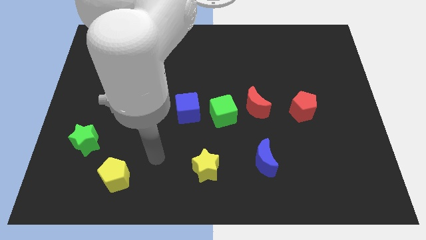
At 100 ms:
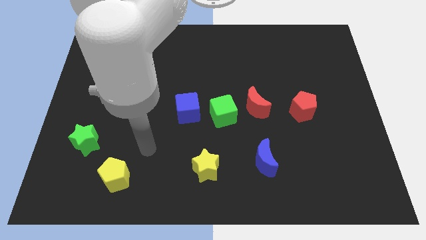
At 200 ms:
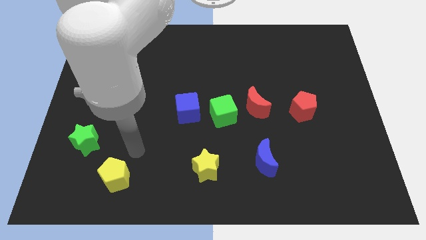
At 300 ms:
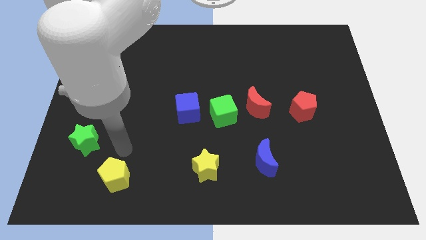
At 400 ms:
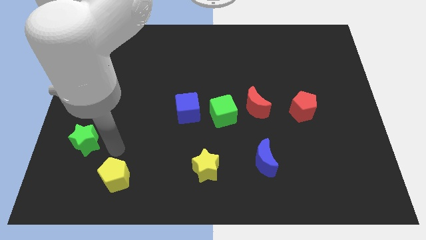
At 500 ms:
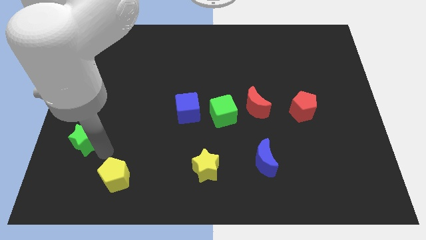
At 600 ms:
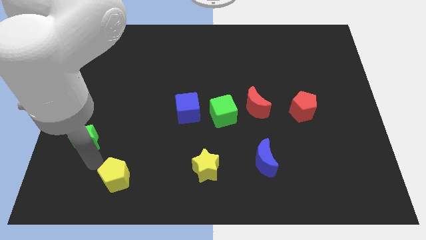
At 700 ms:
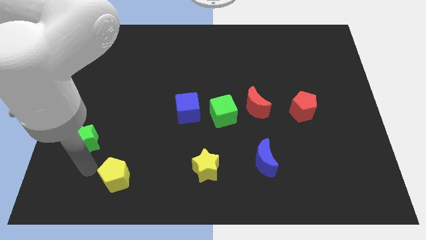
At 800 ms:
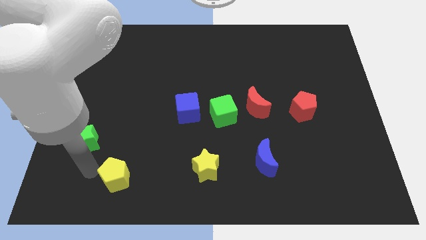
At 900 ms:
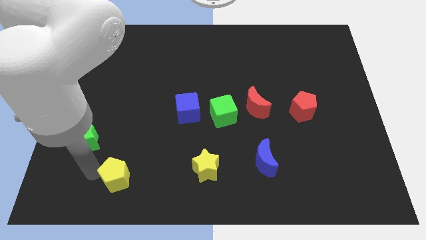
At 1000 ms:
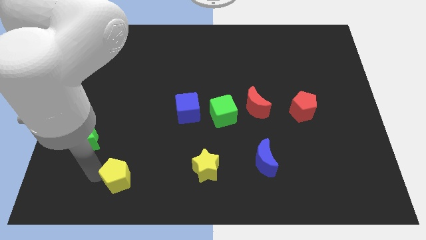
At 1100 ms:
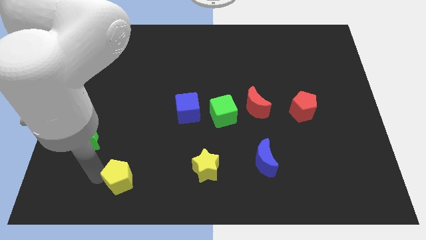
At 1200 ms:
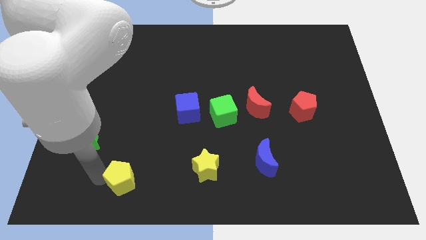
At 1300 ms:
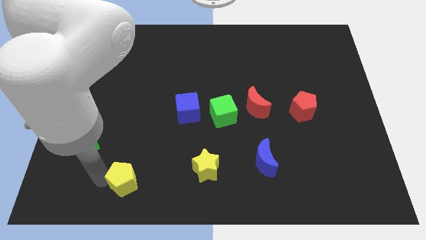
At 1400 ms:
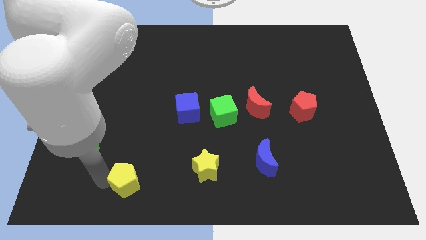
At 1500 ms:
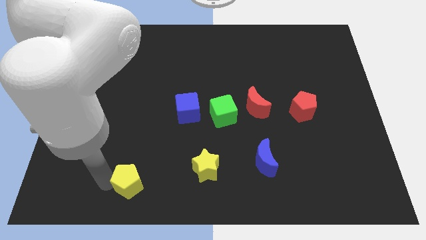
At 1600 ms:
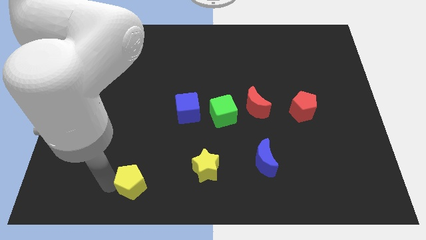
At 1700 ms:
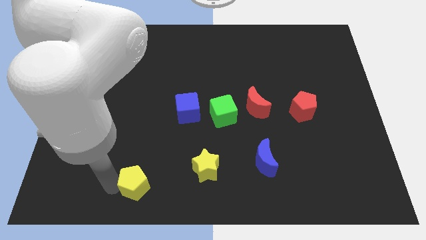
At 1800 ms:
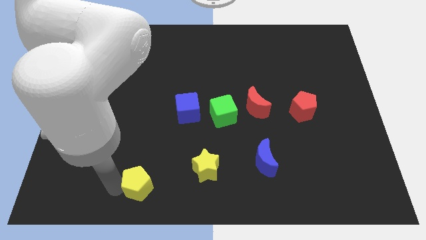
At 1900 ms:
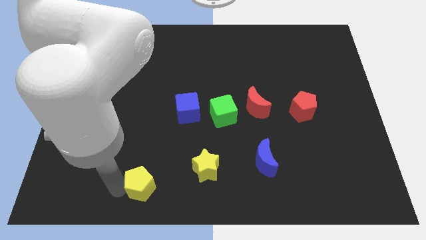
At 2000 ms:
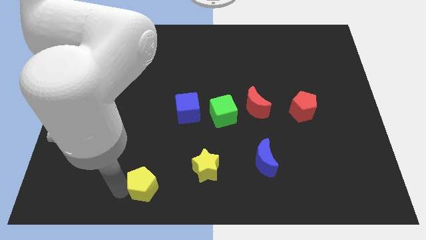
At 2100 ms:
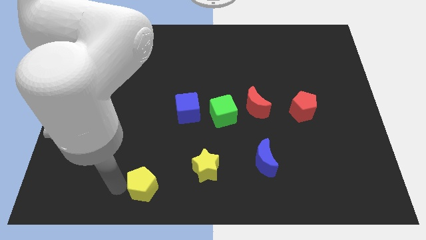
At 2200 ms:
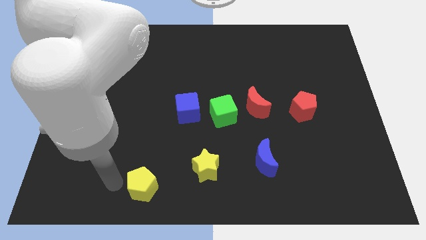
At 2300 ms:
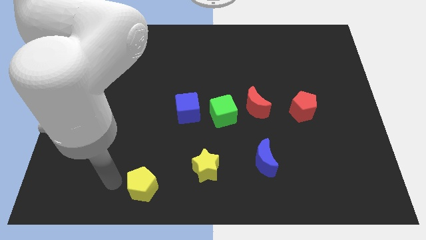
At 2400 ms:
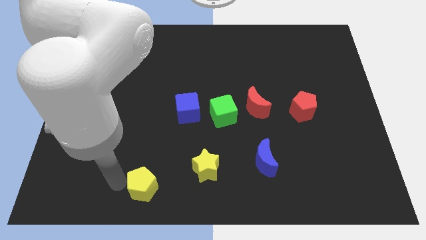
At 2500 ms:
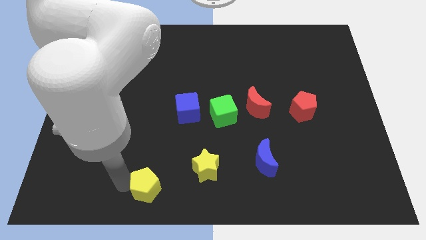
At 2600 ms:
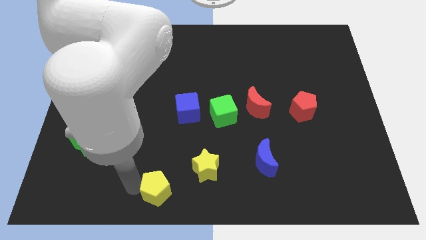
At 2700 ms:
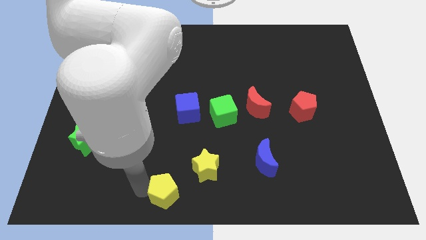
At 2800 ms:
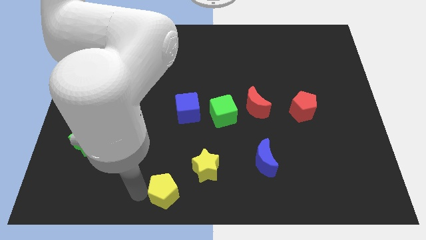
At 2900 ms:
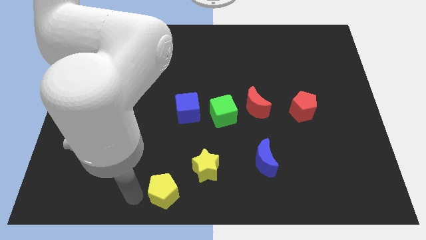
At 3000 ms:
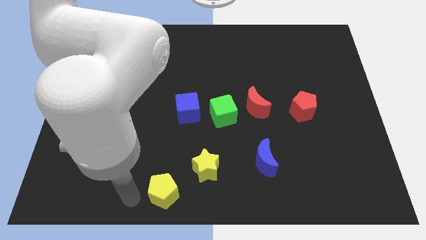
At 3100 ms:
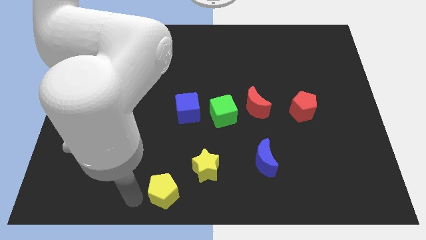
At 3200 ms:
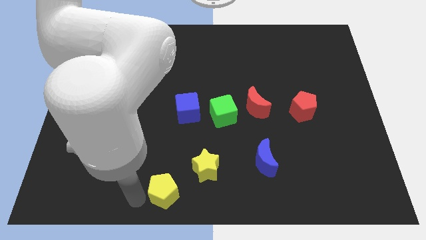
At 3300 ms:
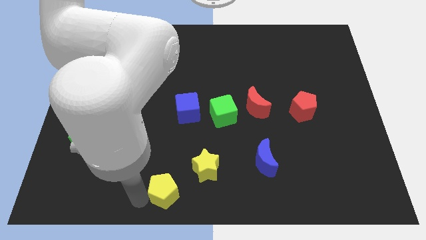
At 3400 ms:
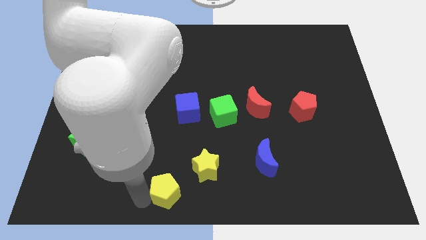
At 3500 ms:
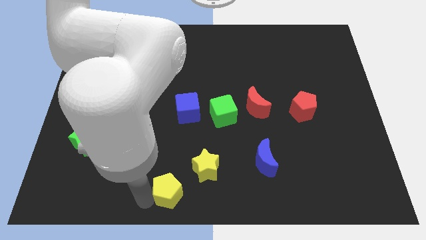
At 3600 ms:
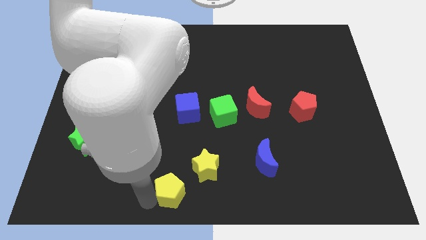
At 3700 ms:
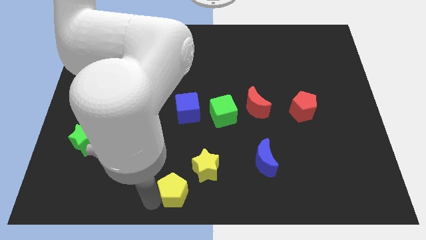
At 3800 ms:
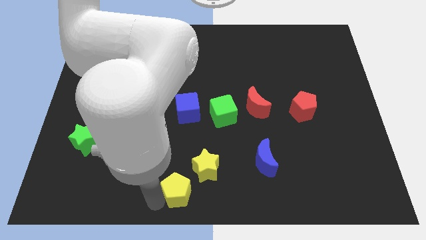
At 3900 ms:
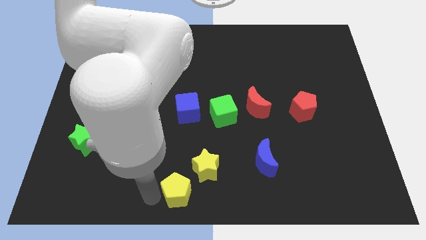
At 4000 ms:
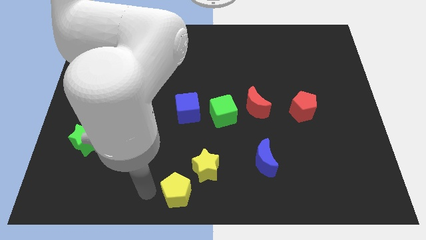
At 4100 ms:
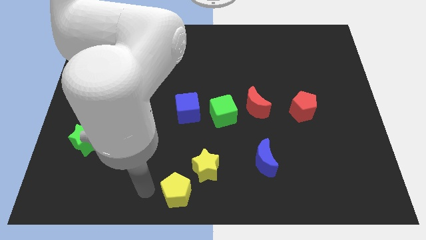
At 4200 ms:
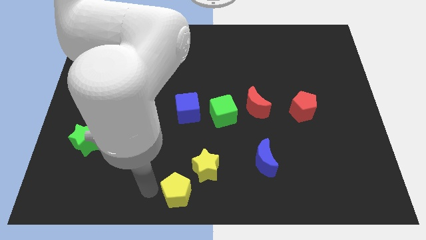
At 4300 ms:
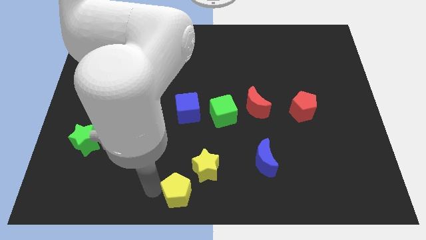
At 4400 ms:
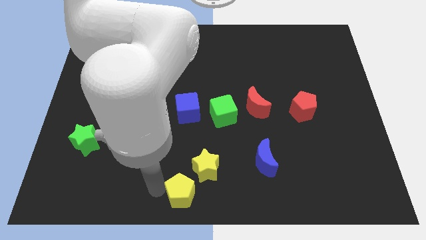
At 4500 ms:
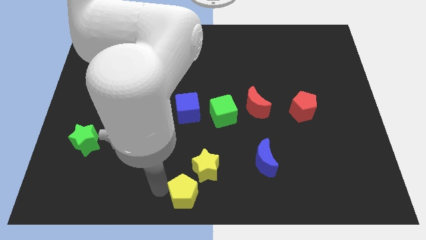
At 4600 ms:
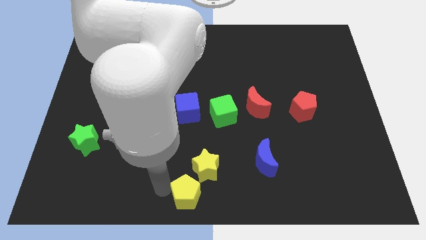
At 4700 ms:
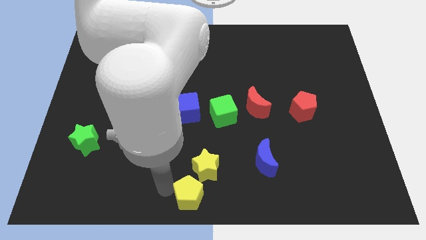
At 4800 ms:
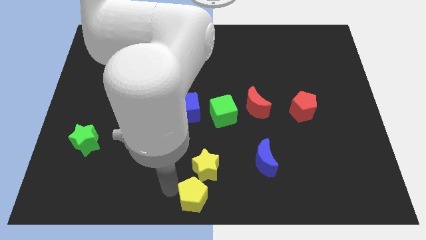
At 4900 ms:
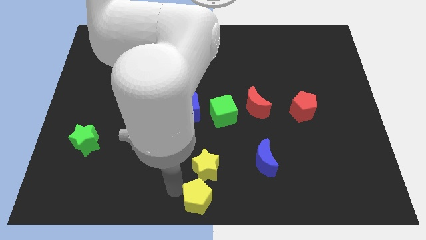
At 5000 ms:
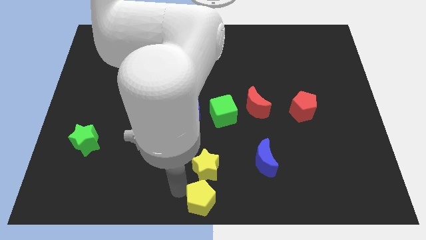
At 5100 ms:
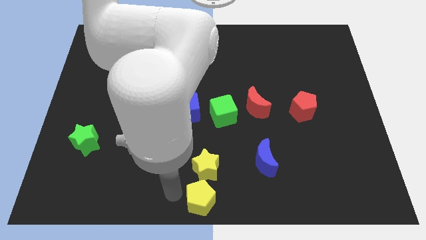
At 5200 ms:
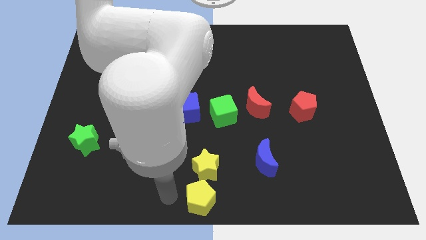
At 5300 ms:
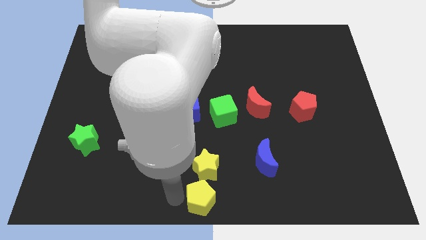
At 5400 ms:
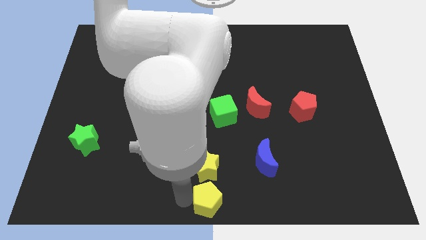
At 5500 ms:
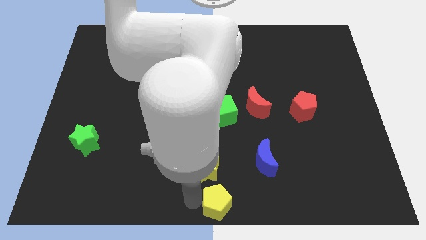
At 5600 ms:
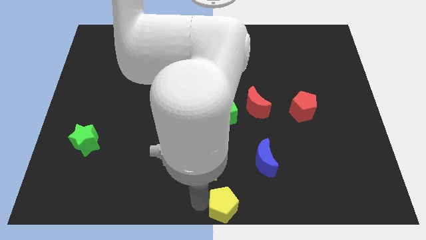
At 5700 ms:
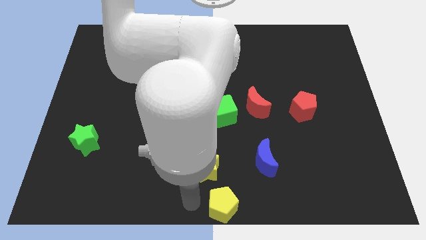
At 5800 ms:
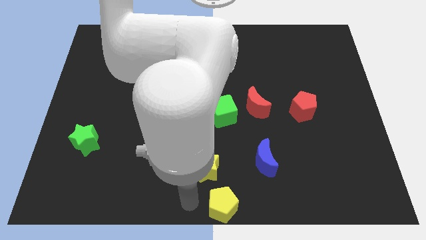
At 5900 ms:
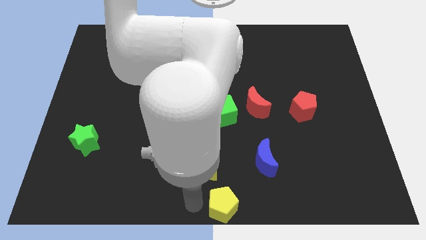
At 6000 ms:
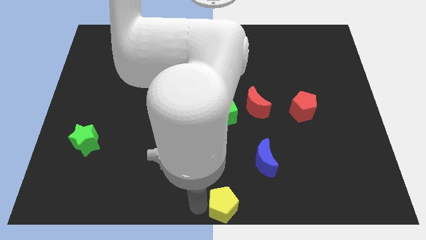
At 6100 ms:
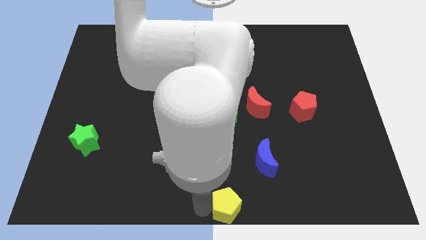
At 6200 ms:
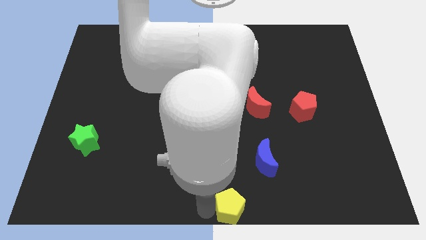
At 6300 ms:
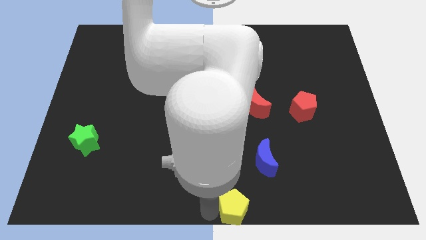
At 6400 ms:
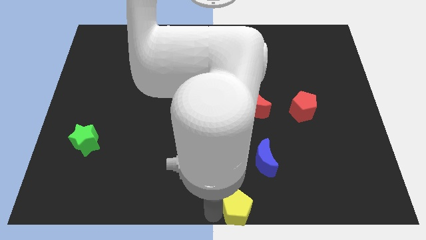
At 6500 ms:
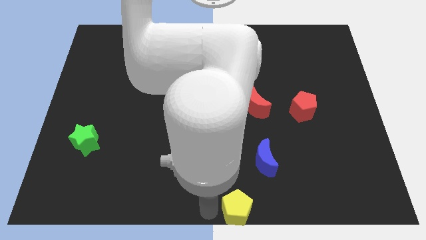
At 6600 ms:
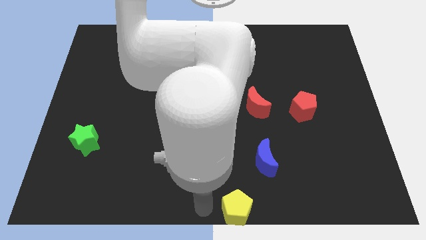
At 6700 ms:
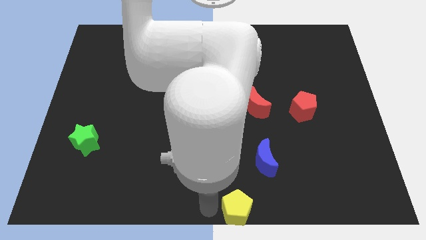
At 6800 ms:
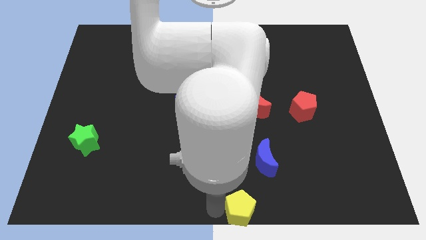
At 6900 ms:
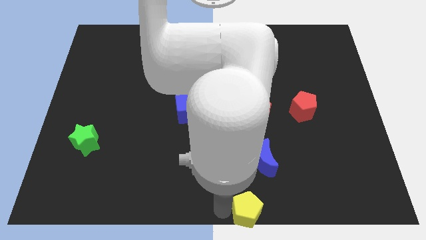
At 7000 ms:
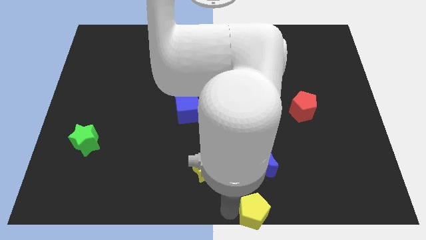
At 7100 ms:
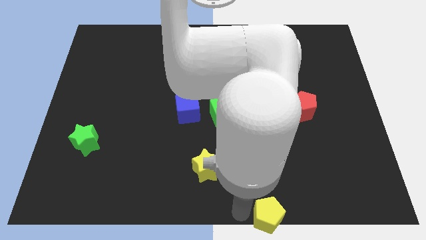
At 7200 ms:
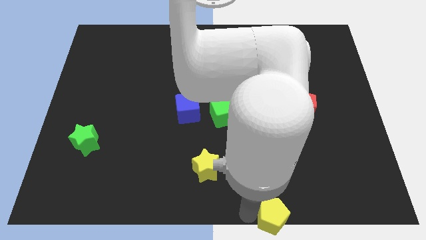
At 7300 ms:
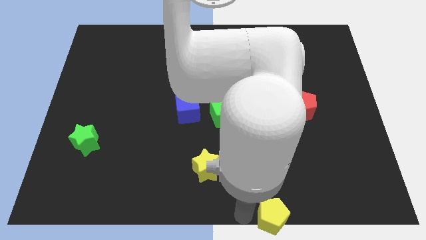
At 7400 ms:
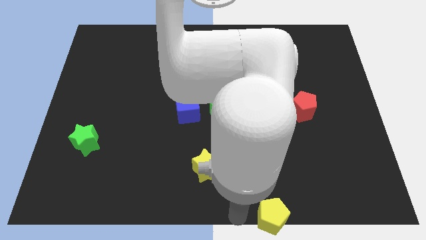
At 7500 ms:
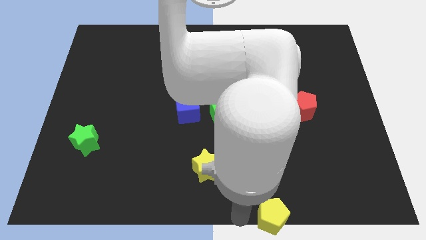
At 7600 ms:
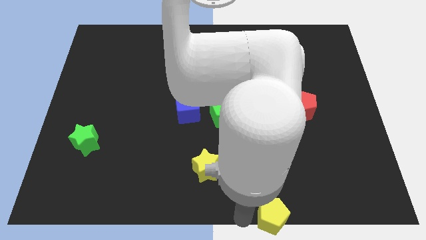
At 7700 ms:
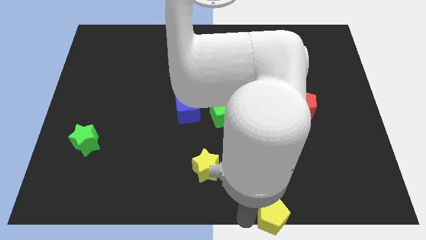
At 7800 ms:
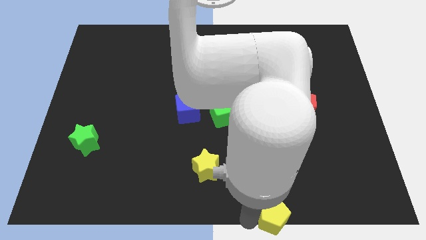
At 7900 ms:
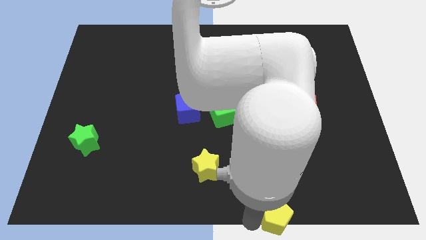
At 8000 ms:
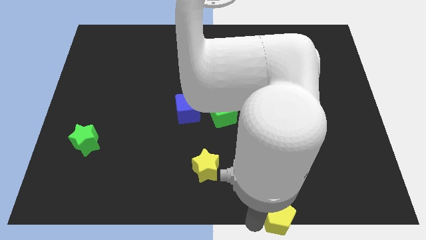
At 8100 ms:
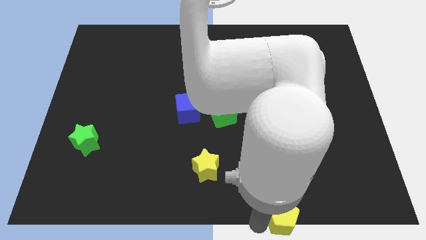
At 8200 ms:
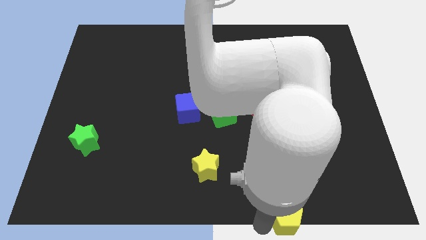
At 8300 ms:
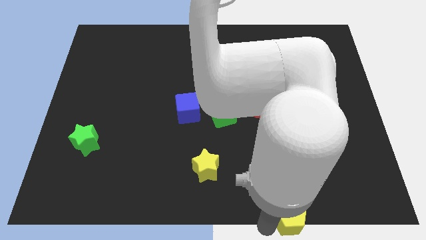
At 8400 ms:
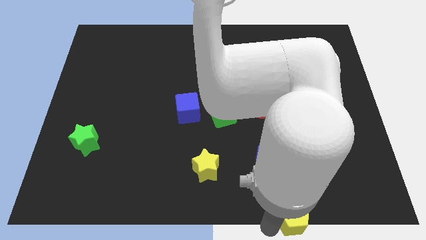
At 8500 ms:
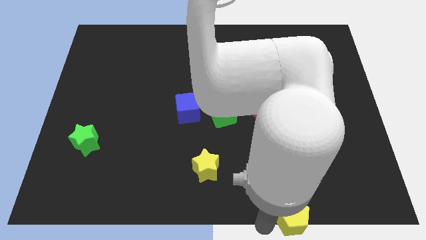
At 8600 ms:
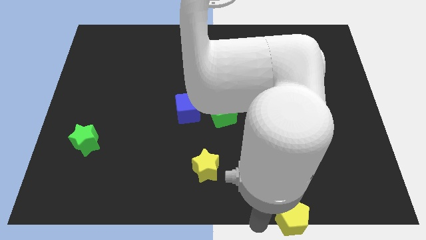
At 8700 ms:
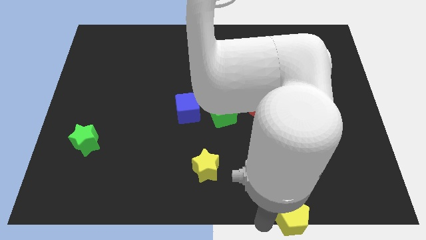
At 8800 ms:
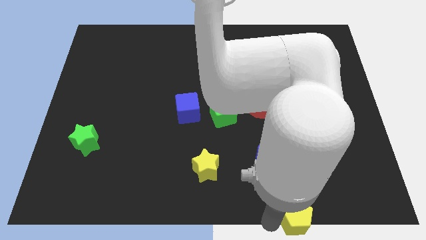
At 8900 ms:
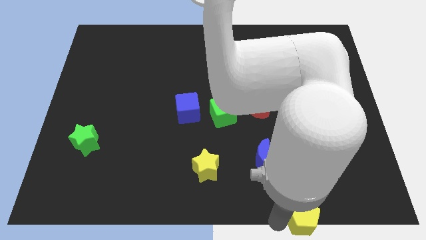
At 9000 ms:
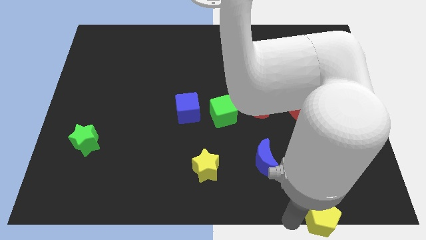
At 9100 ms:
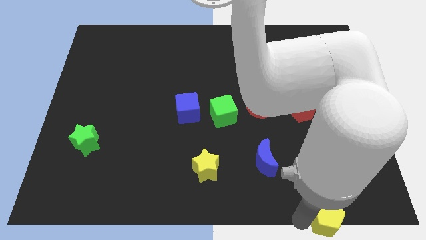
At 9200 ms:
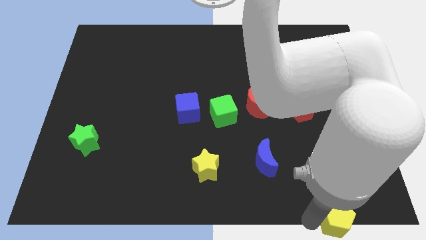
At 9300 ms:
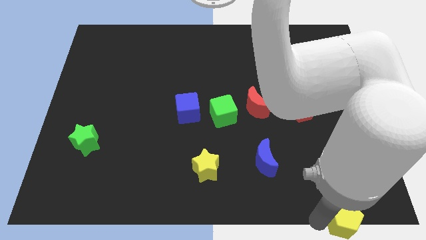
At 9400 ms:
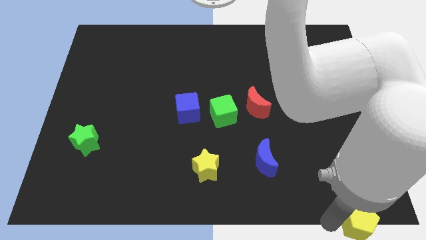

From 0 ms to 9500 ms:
slide the yellow pentagon to the bottom right
